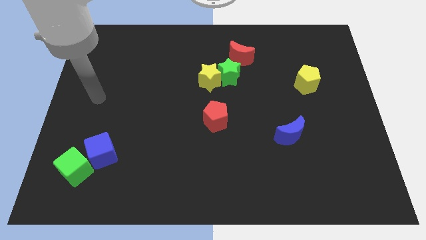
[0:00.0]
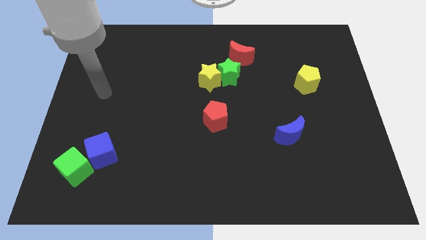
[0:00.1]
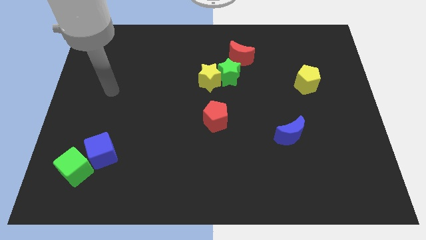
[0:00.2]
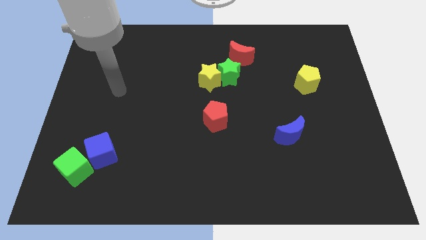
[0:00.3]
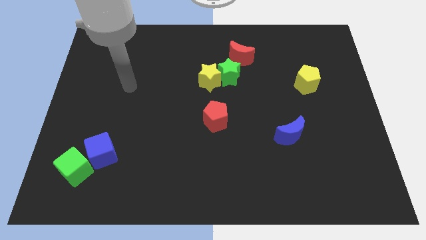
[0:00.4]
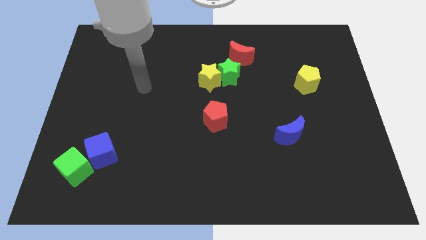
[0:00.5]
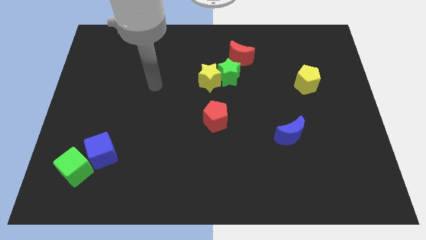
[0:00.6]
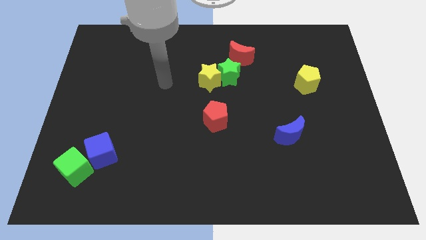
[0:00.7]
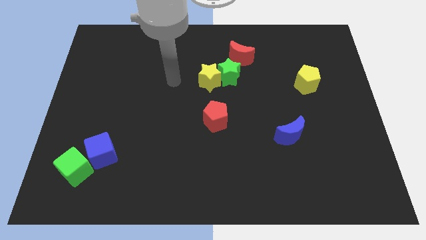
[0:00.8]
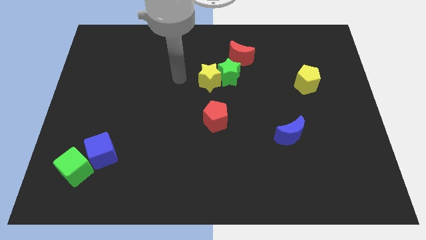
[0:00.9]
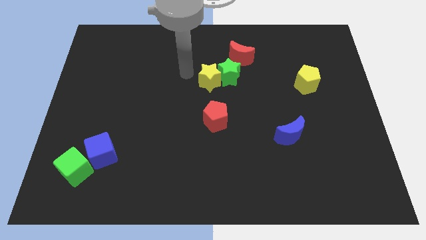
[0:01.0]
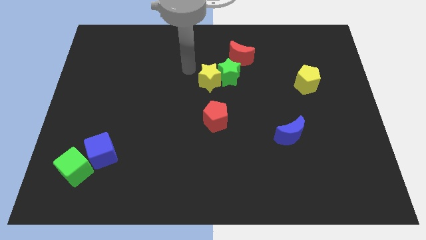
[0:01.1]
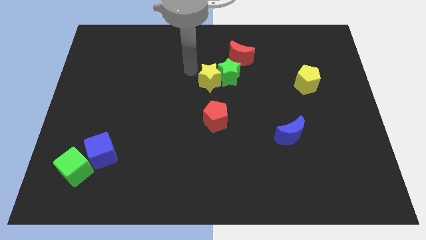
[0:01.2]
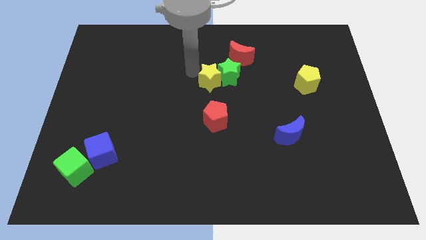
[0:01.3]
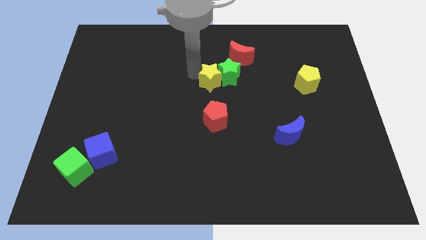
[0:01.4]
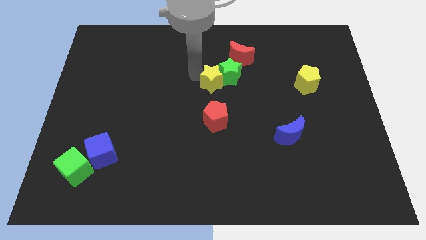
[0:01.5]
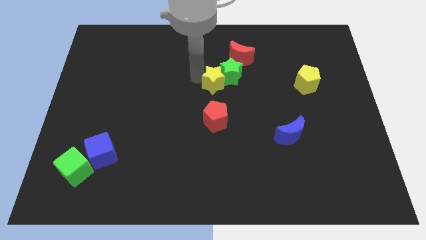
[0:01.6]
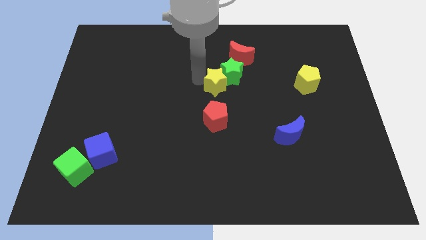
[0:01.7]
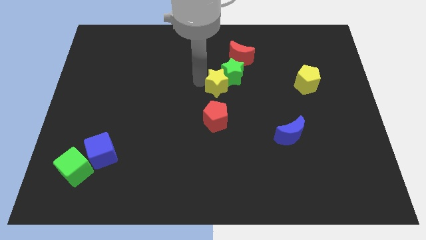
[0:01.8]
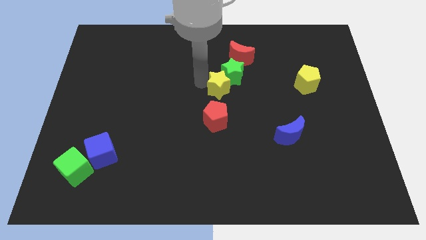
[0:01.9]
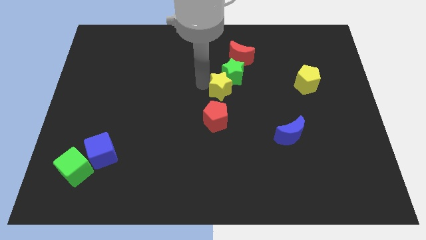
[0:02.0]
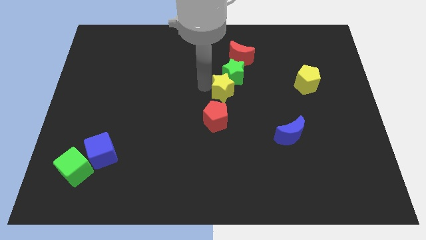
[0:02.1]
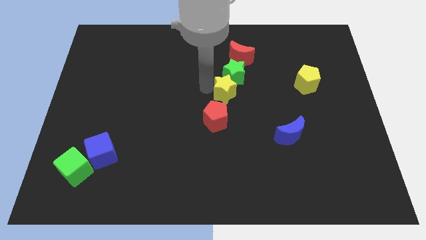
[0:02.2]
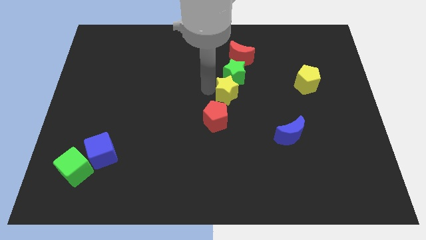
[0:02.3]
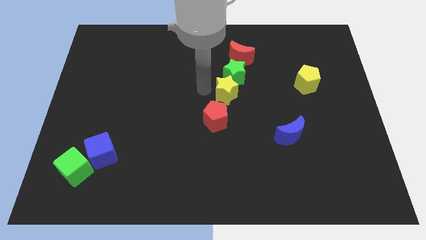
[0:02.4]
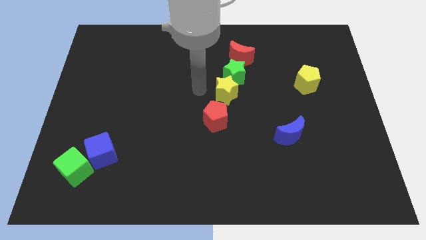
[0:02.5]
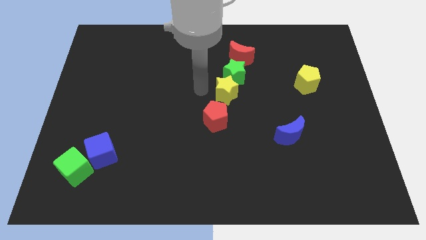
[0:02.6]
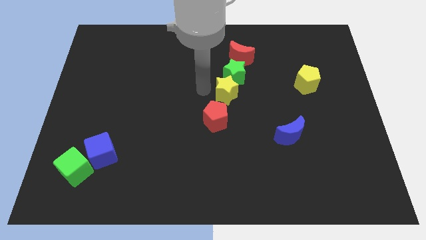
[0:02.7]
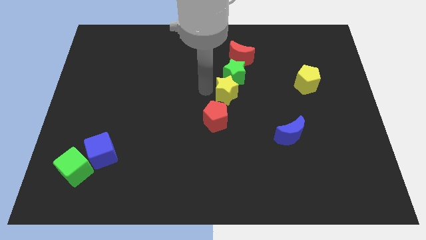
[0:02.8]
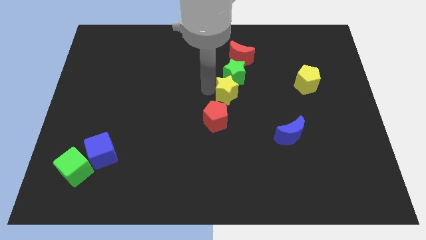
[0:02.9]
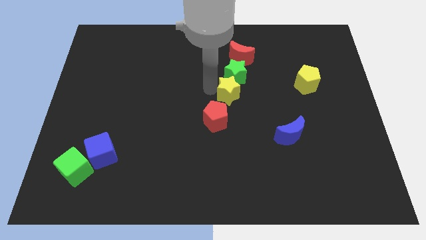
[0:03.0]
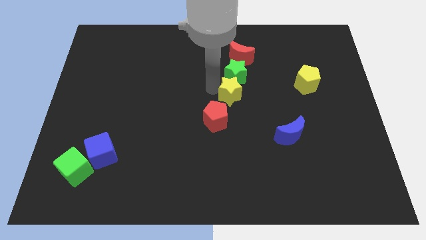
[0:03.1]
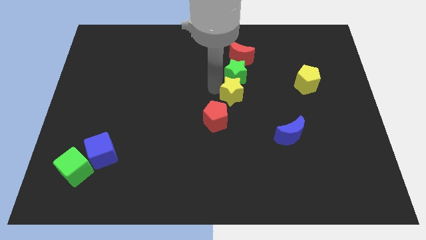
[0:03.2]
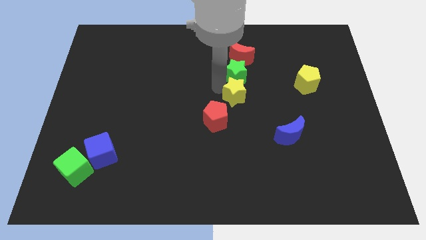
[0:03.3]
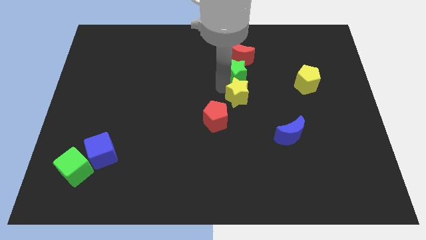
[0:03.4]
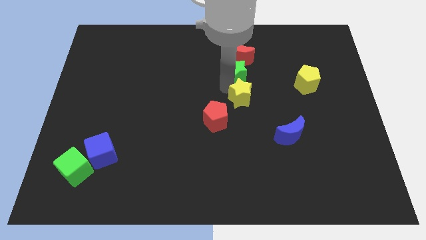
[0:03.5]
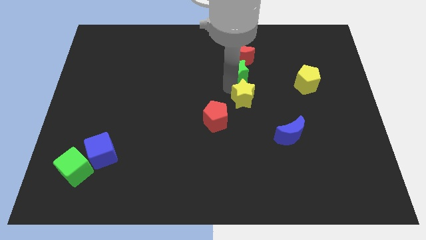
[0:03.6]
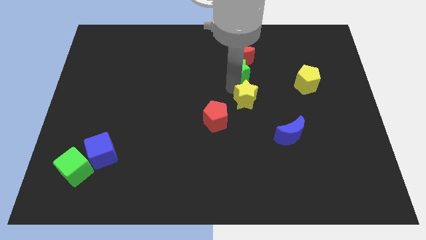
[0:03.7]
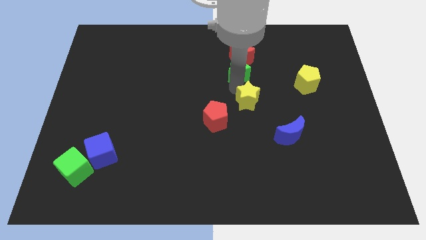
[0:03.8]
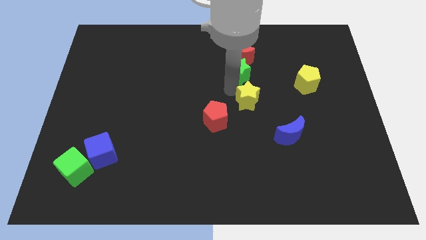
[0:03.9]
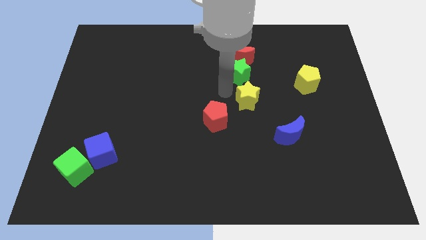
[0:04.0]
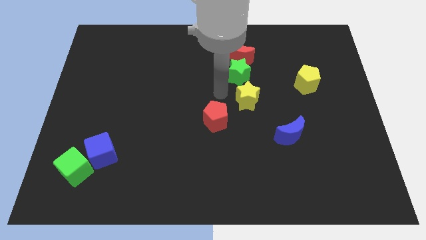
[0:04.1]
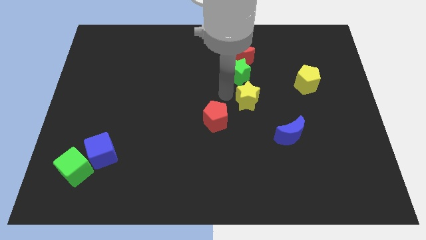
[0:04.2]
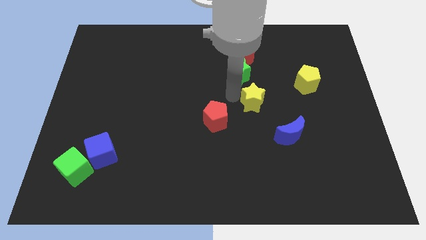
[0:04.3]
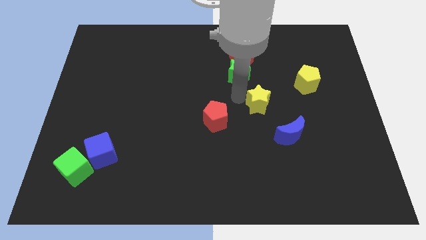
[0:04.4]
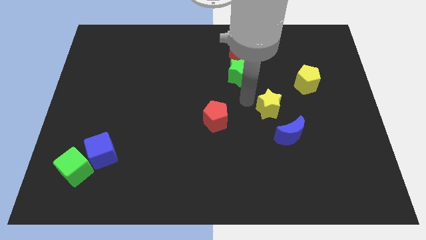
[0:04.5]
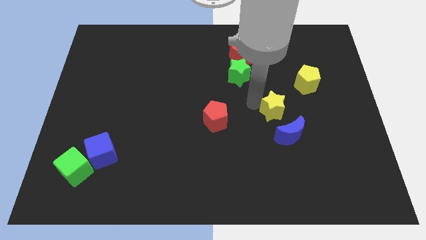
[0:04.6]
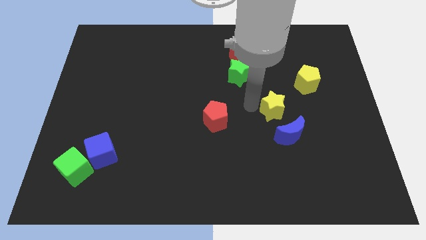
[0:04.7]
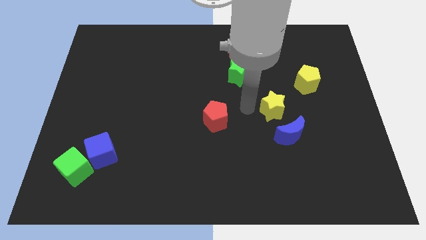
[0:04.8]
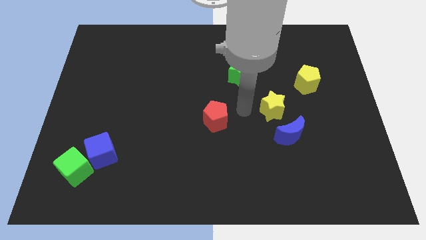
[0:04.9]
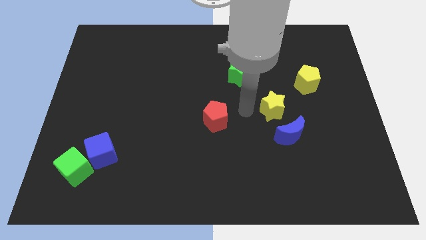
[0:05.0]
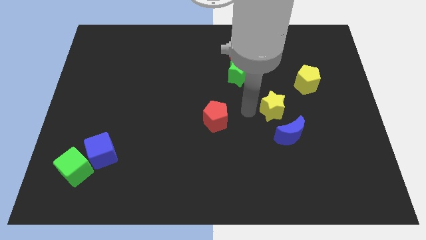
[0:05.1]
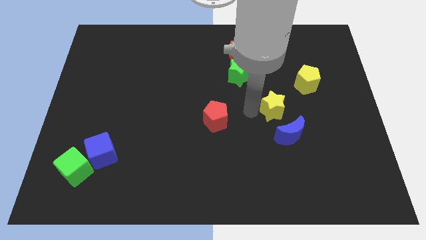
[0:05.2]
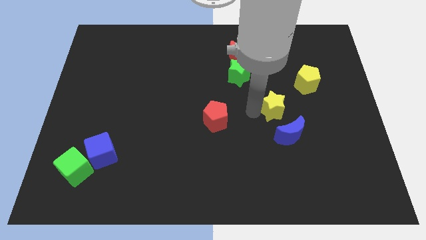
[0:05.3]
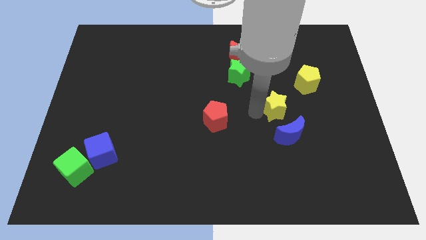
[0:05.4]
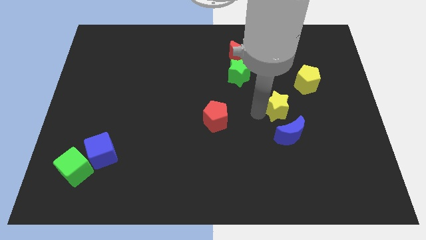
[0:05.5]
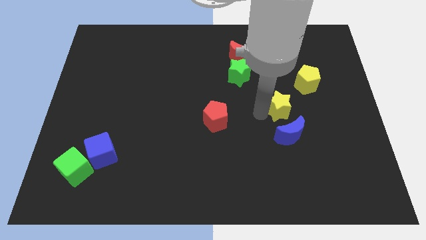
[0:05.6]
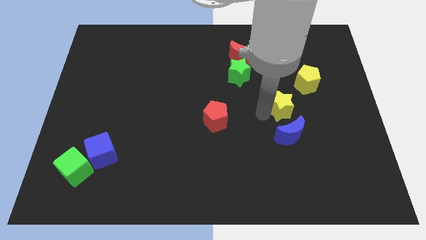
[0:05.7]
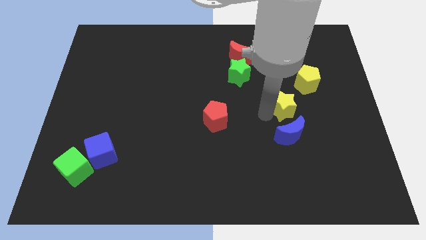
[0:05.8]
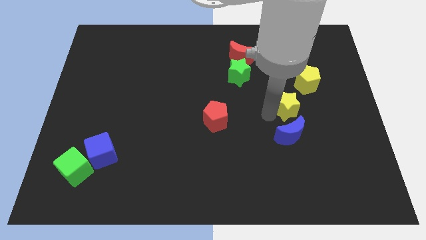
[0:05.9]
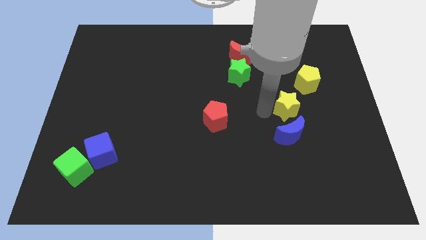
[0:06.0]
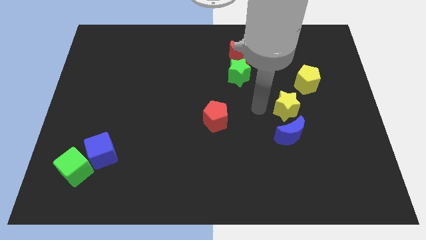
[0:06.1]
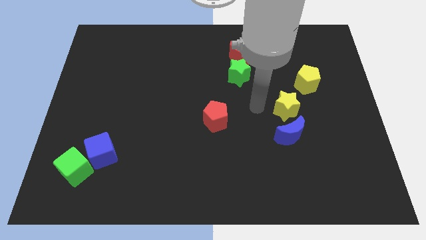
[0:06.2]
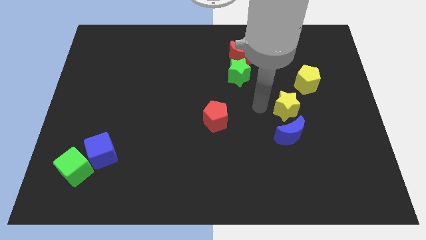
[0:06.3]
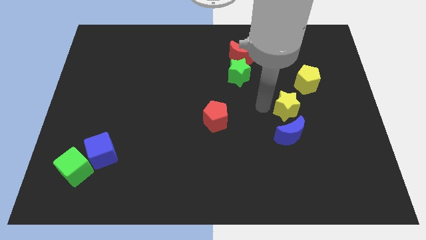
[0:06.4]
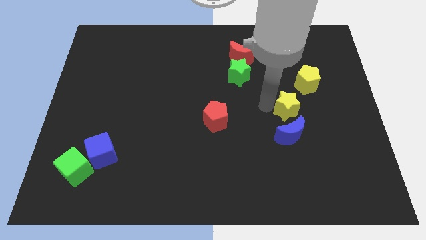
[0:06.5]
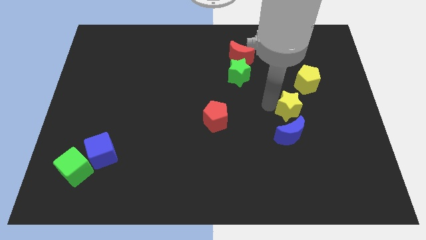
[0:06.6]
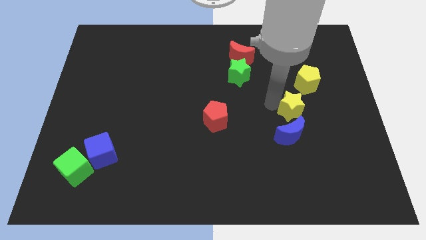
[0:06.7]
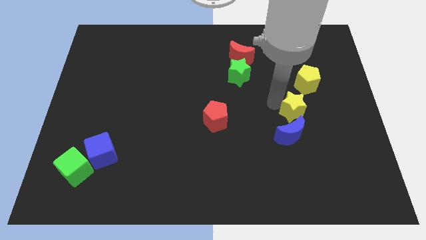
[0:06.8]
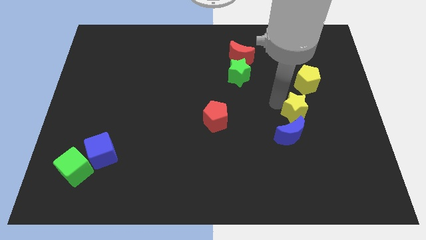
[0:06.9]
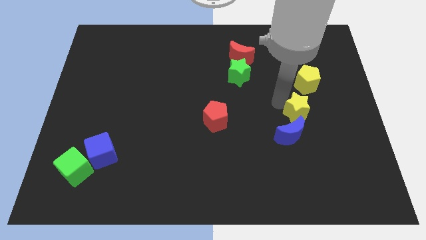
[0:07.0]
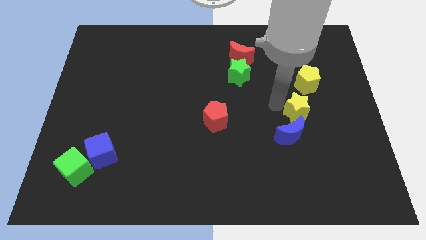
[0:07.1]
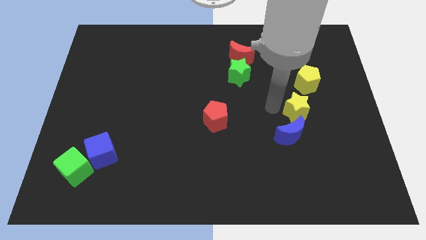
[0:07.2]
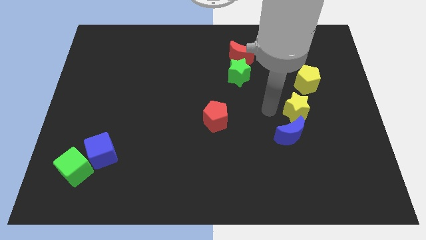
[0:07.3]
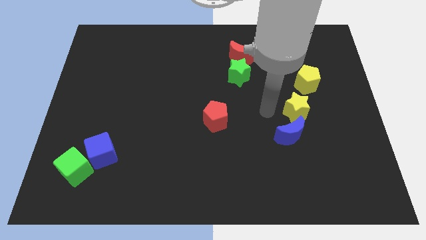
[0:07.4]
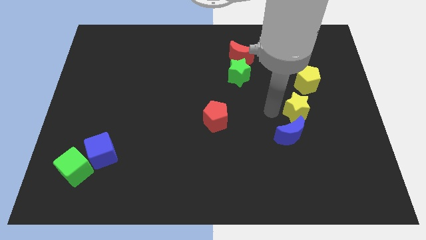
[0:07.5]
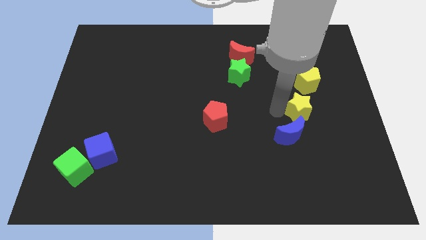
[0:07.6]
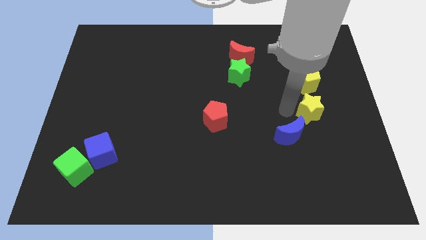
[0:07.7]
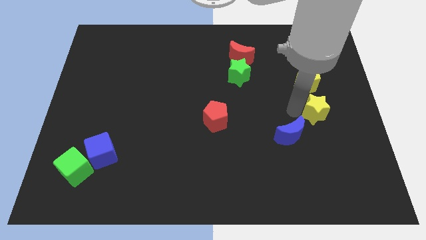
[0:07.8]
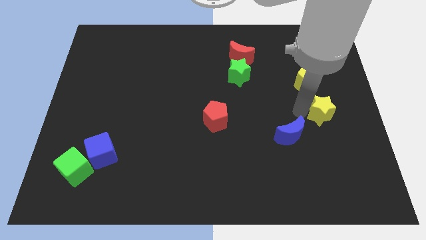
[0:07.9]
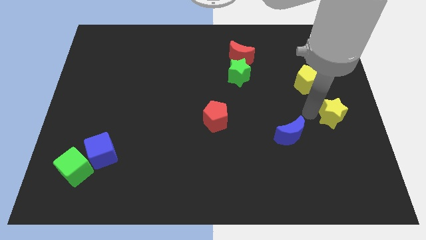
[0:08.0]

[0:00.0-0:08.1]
put the yellow star to the center right
